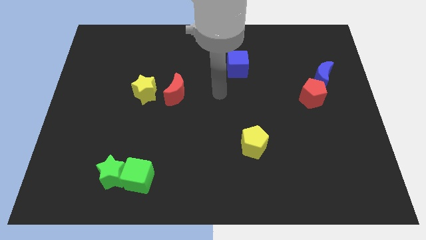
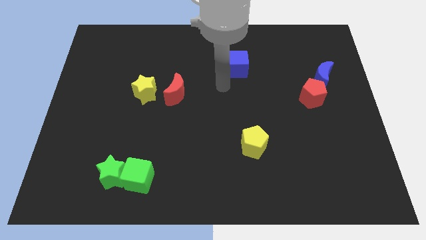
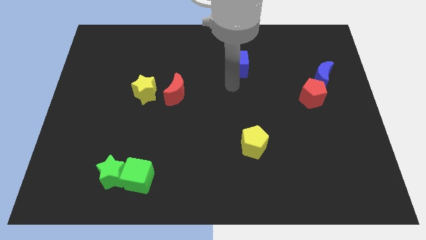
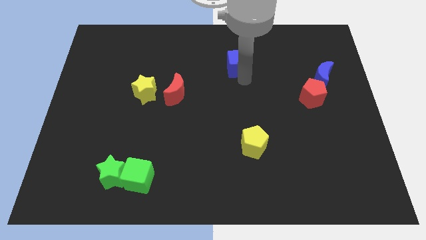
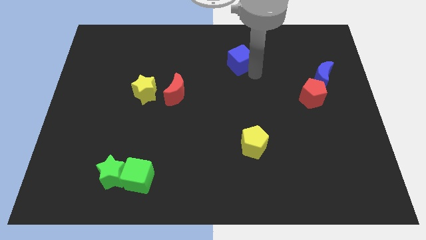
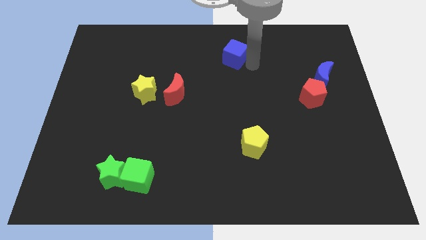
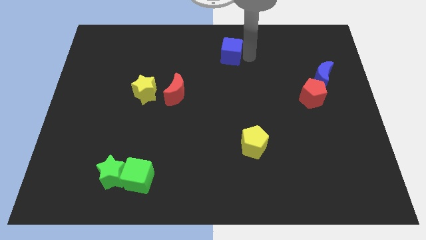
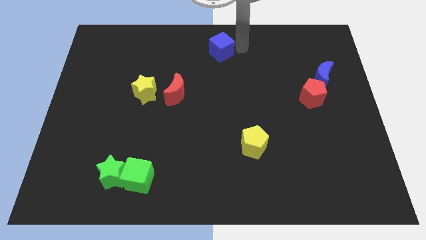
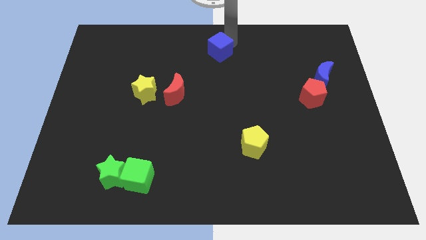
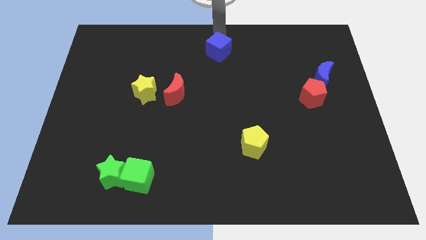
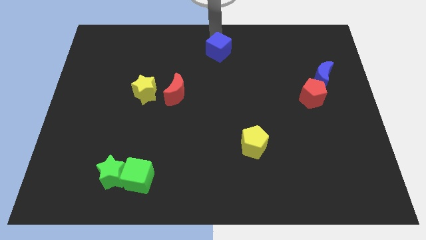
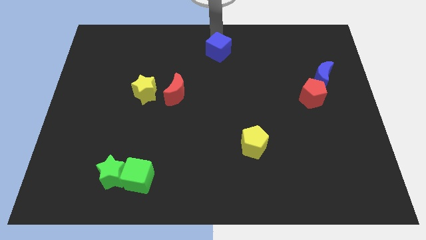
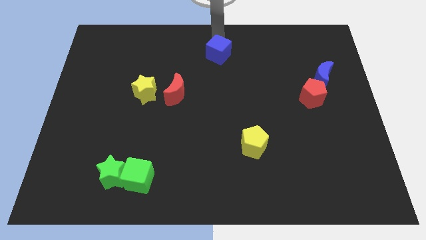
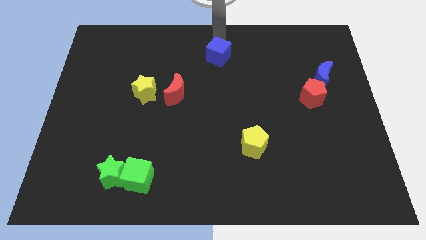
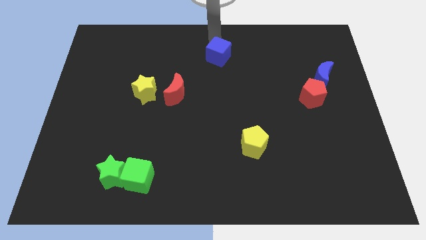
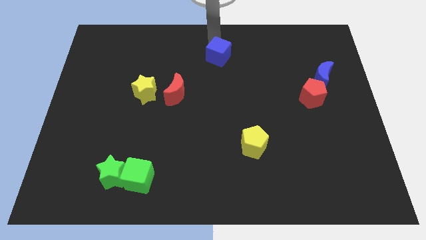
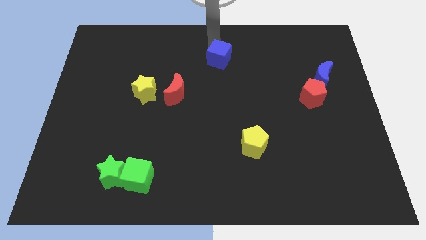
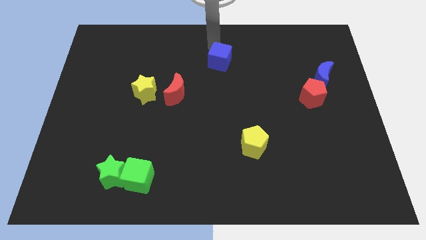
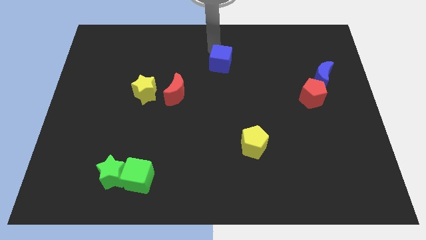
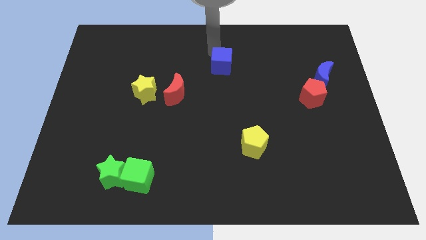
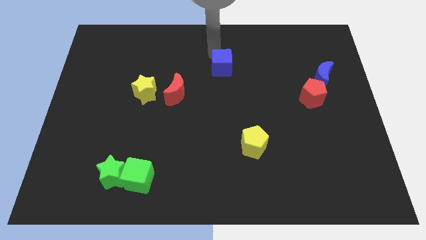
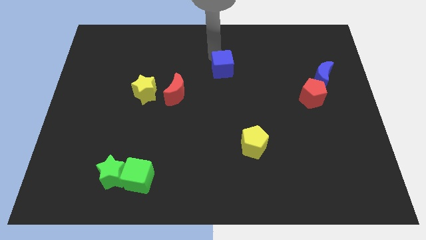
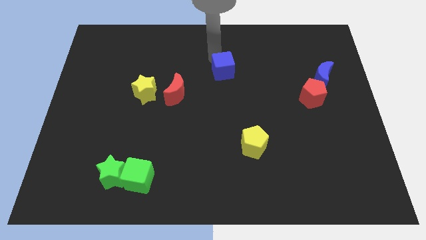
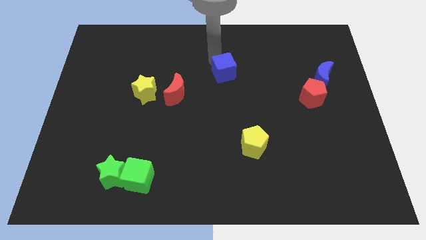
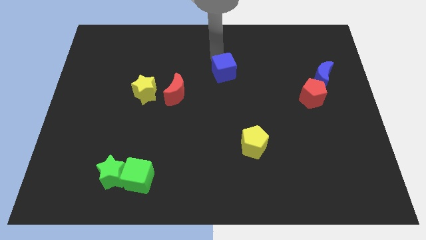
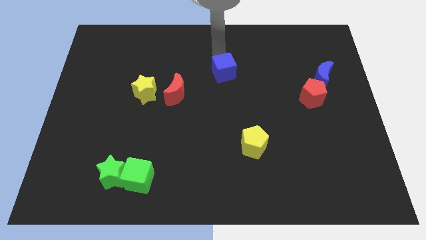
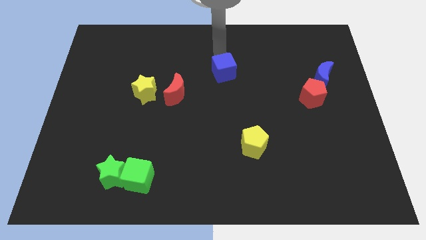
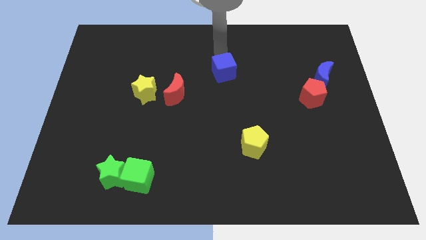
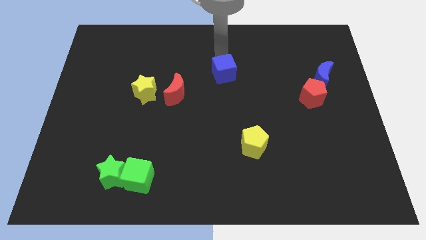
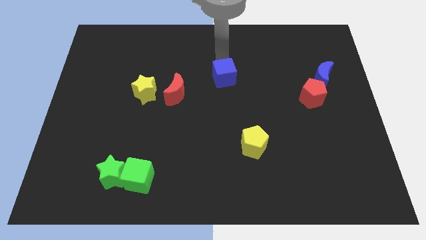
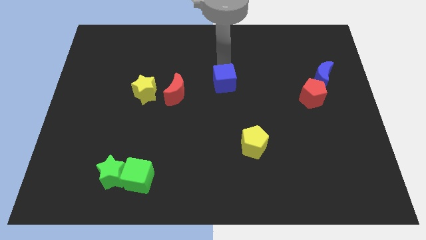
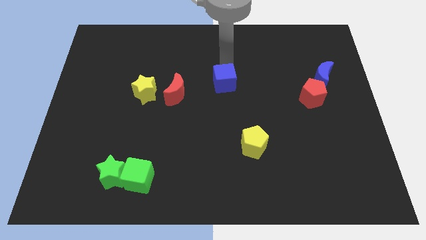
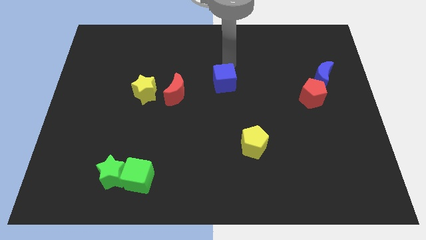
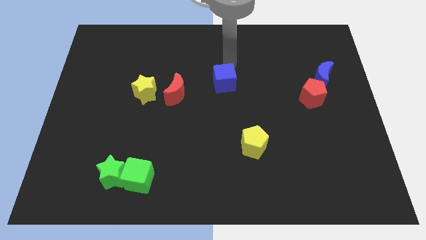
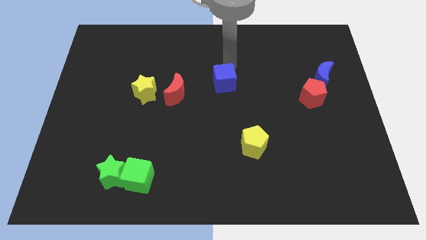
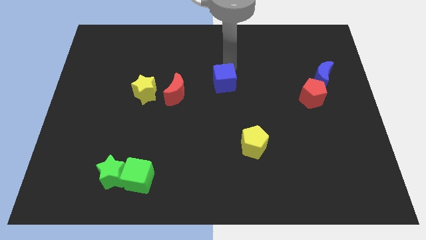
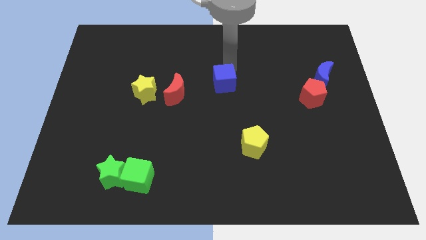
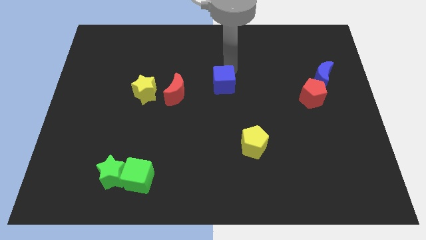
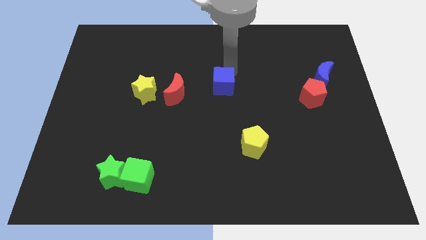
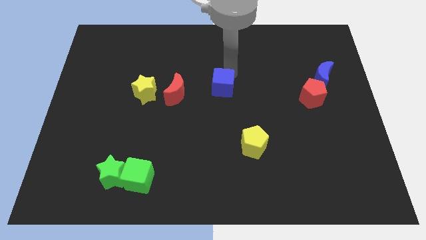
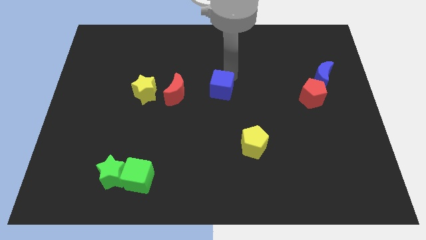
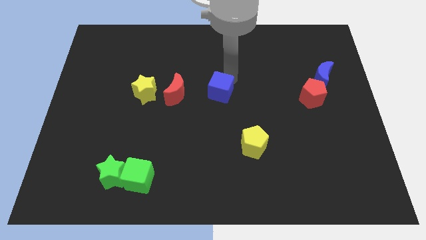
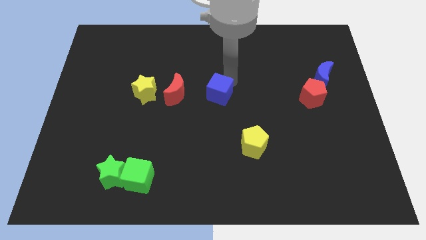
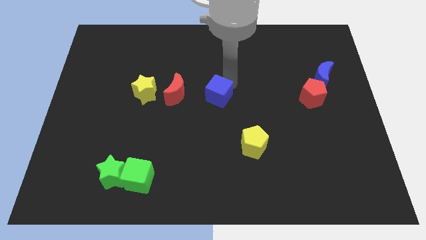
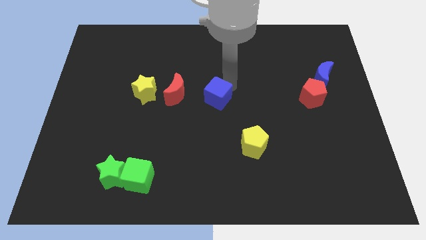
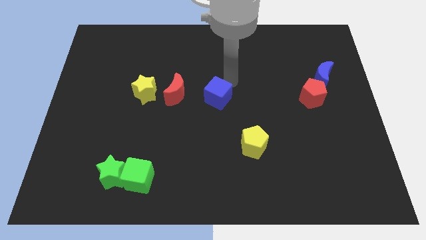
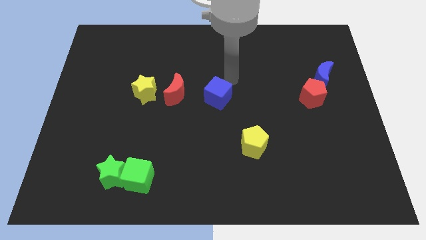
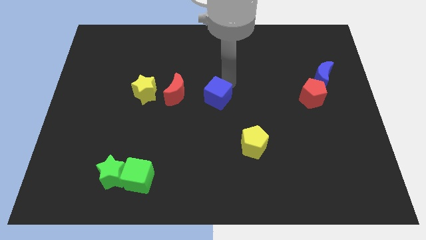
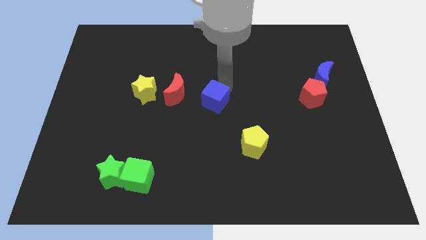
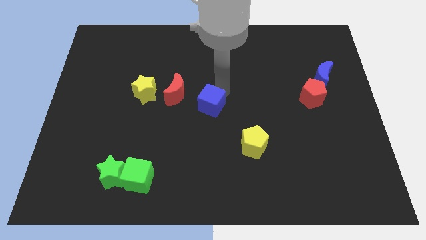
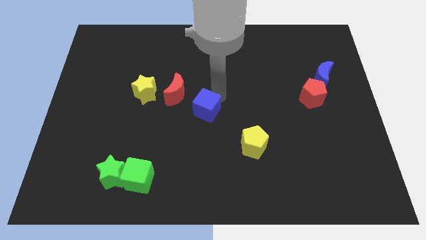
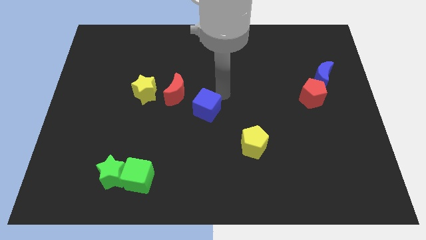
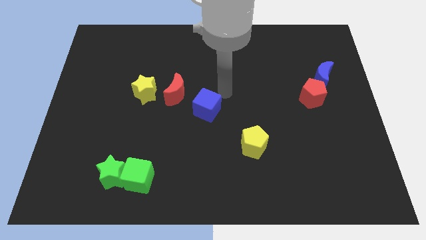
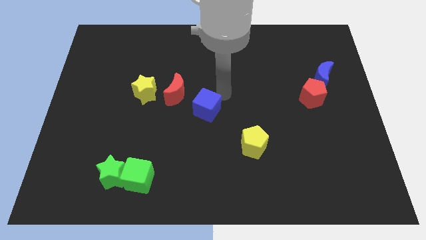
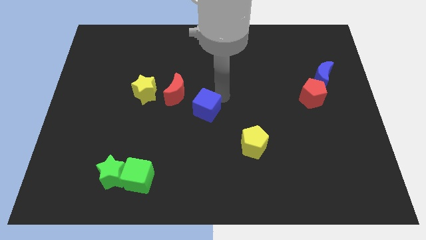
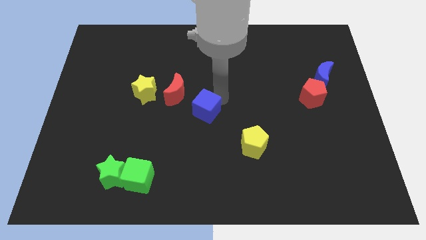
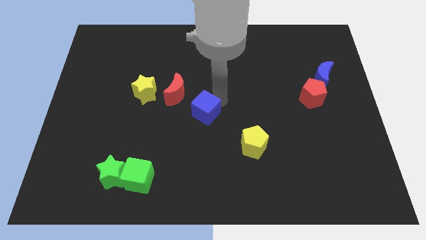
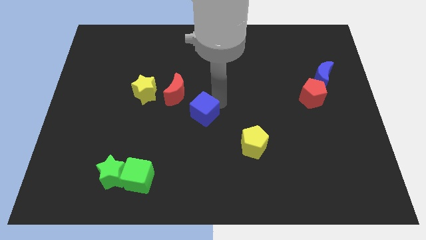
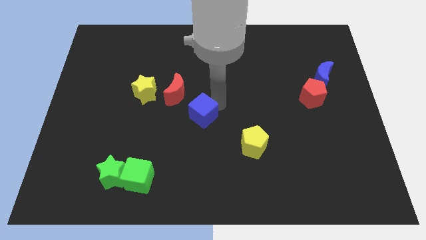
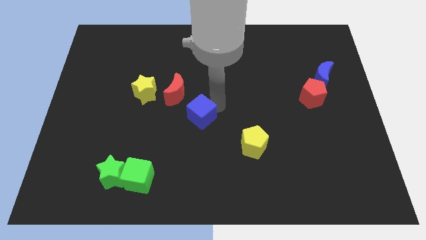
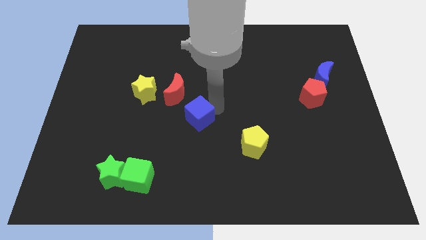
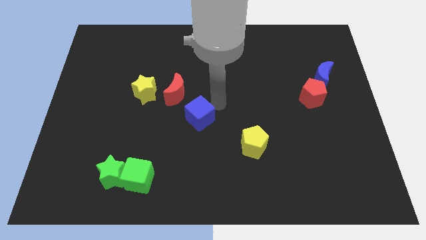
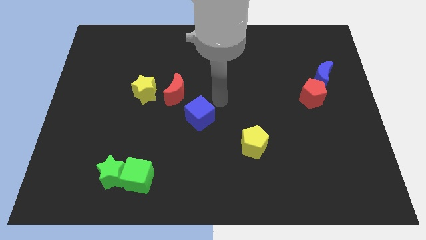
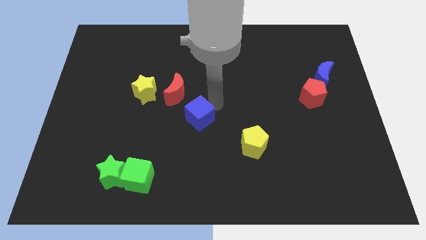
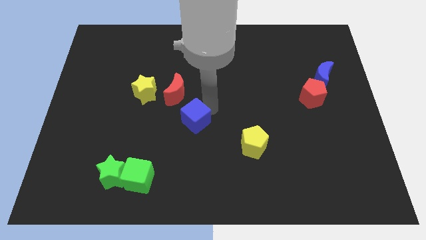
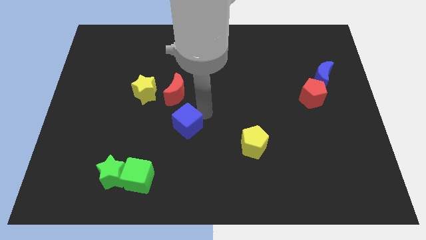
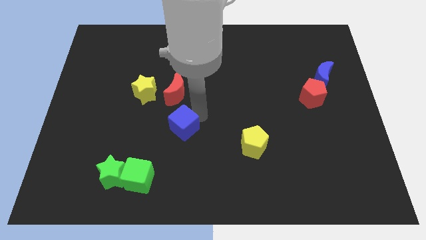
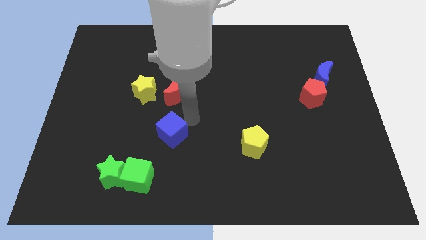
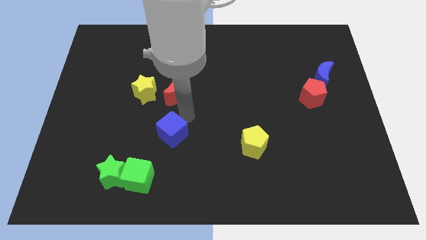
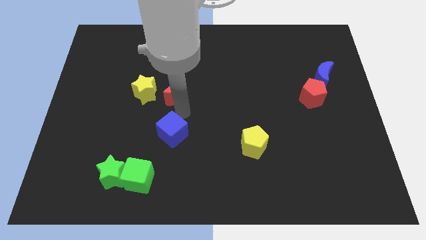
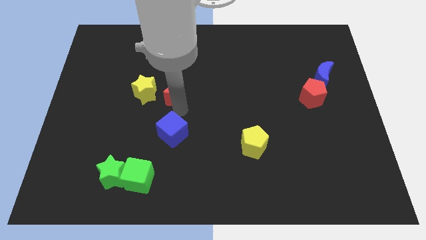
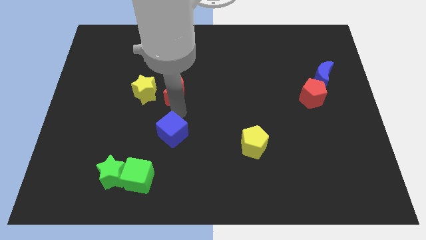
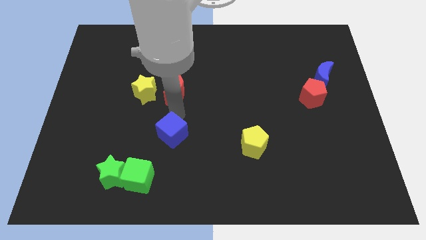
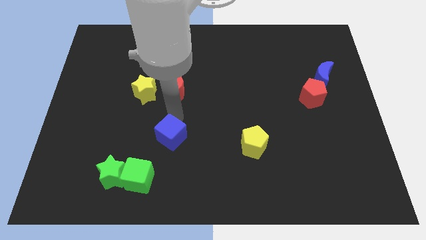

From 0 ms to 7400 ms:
move the blue cube to the top right side of the green cube
